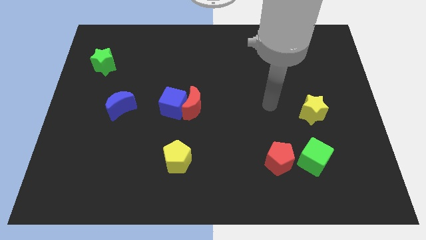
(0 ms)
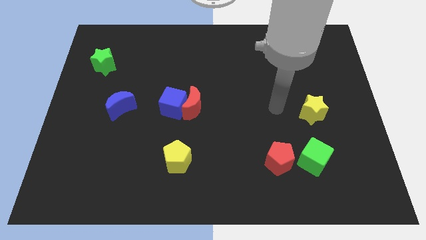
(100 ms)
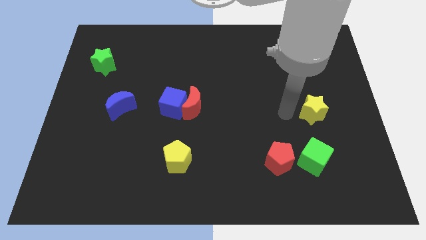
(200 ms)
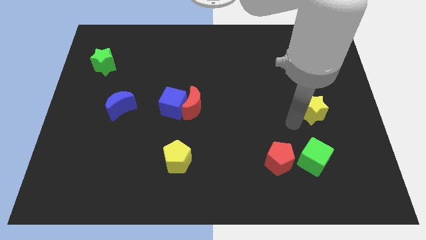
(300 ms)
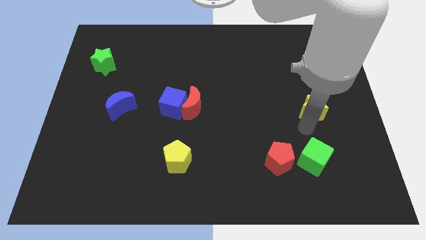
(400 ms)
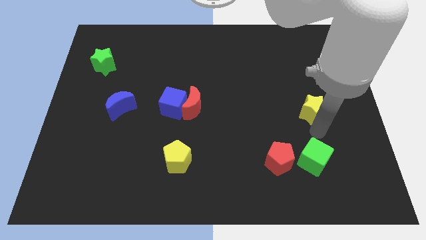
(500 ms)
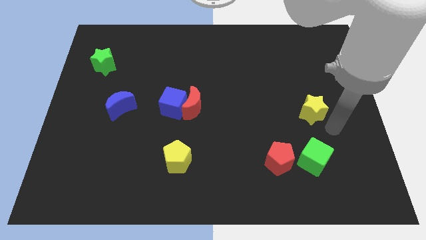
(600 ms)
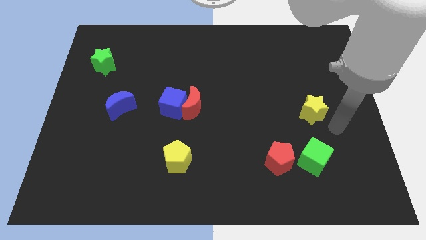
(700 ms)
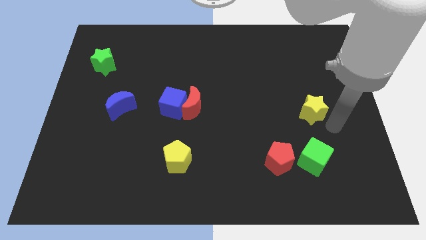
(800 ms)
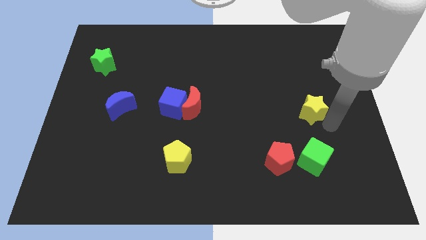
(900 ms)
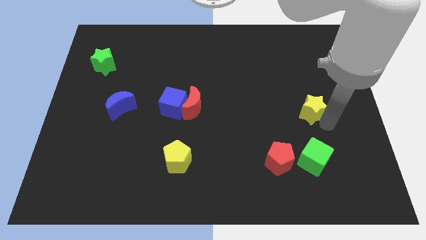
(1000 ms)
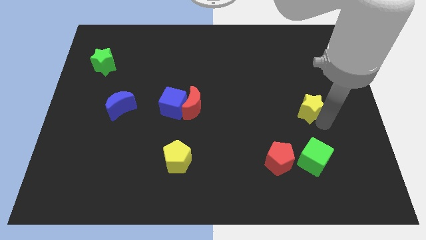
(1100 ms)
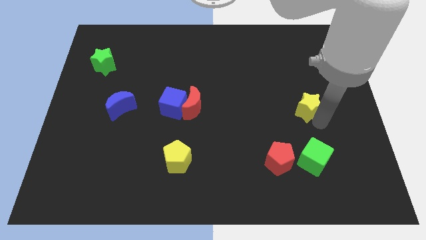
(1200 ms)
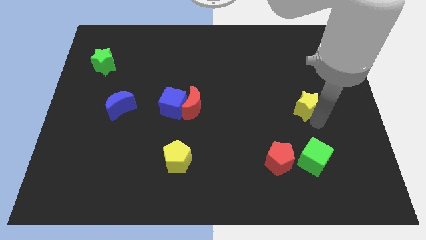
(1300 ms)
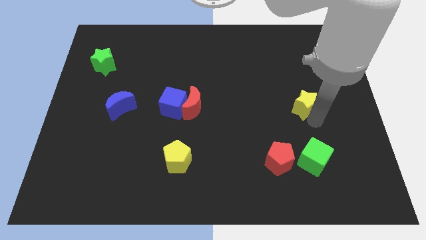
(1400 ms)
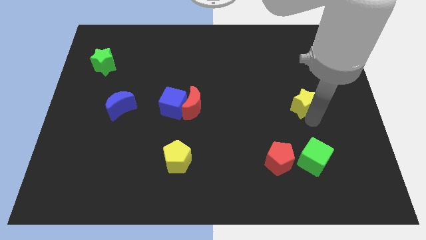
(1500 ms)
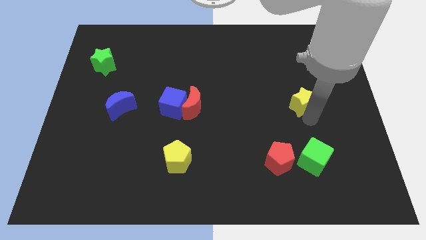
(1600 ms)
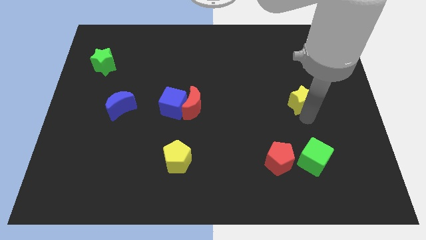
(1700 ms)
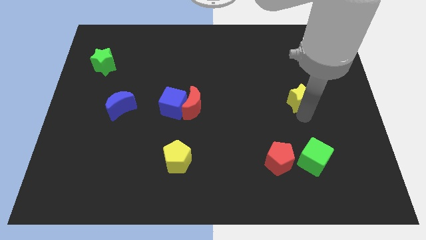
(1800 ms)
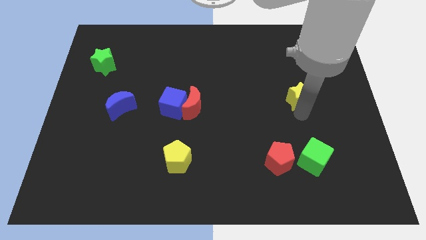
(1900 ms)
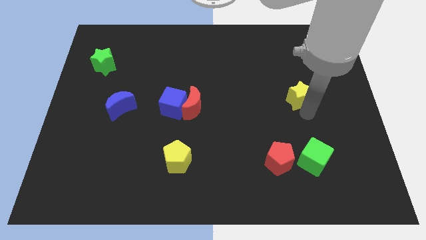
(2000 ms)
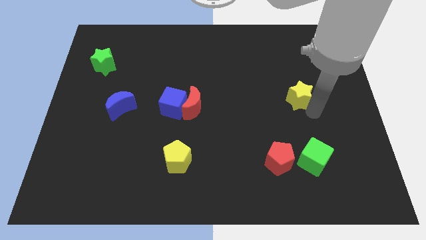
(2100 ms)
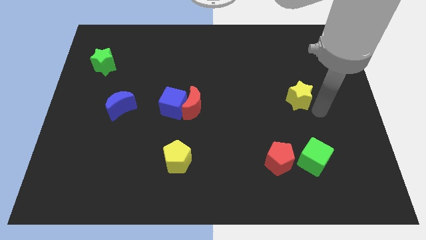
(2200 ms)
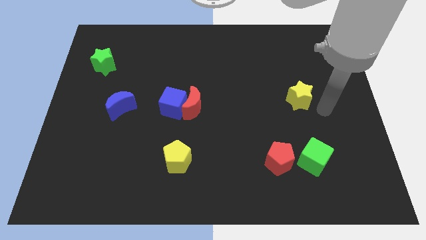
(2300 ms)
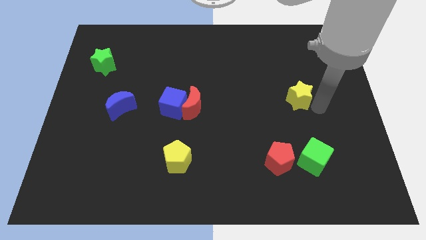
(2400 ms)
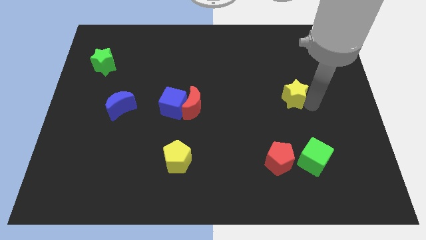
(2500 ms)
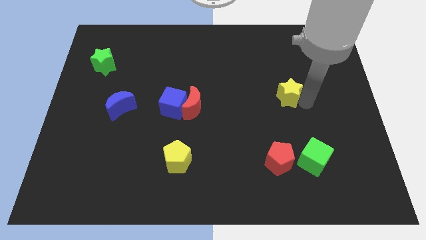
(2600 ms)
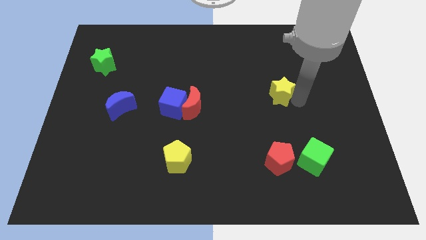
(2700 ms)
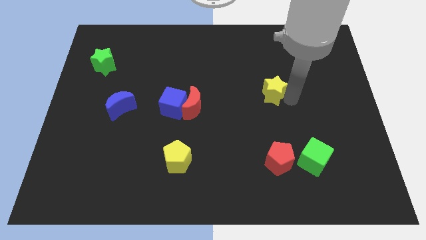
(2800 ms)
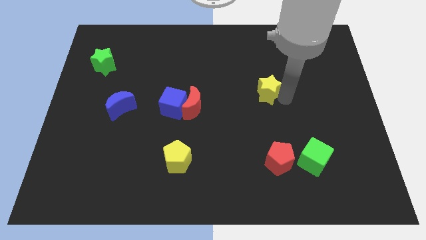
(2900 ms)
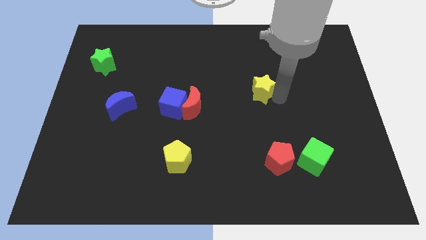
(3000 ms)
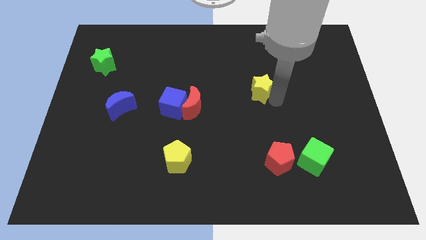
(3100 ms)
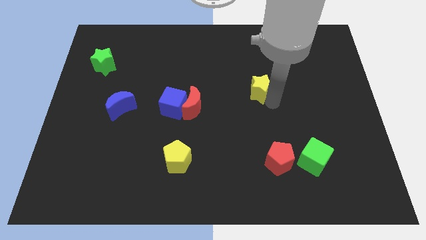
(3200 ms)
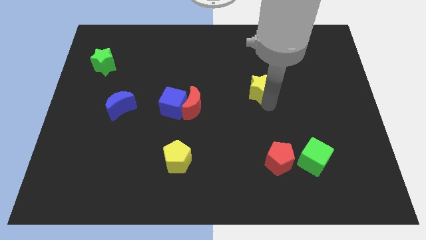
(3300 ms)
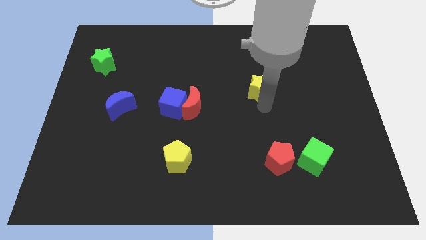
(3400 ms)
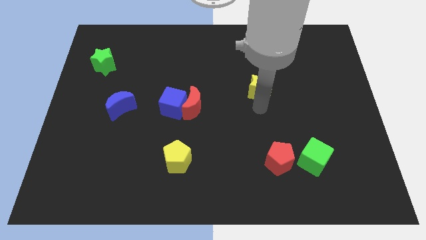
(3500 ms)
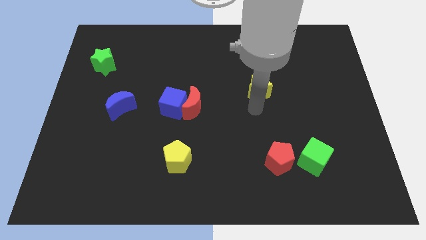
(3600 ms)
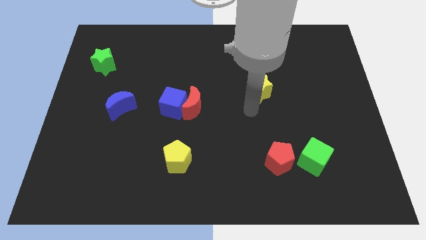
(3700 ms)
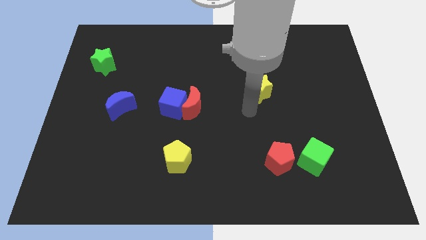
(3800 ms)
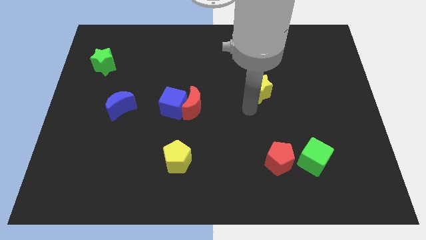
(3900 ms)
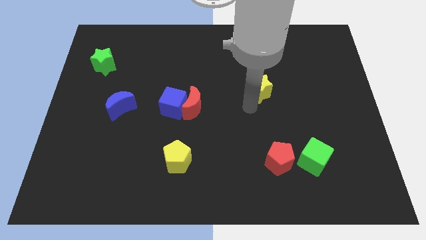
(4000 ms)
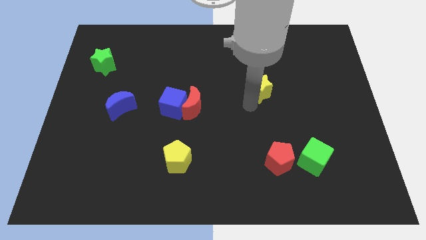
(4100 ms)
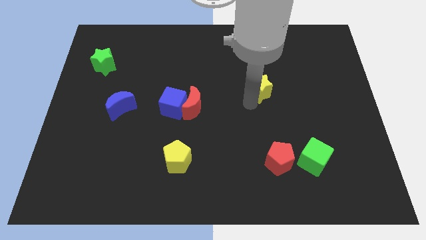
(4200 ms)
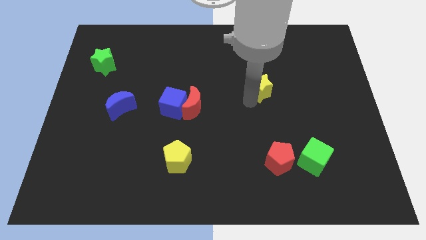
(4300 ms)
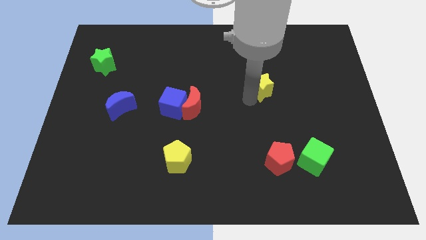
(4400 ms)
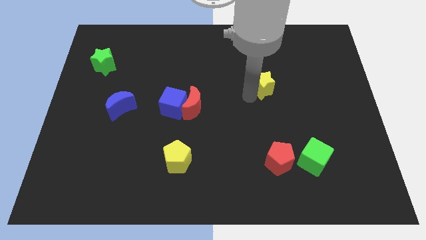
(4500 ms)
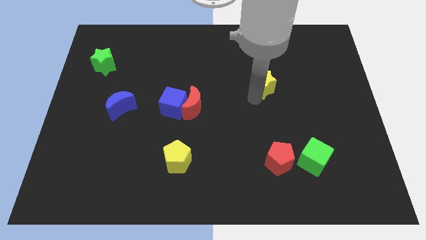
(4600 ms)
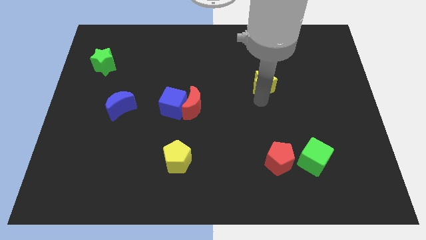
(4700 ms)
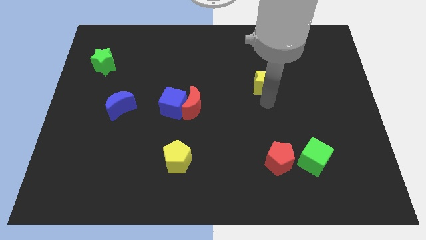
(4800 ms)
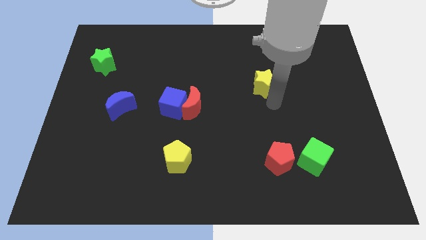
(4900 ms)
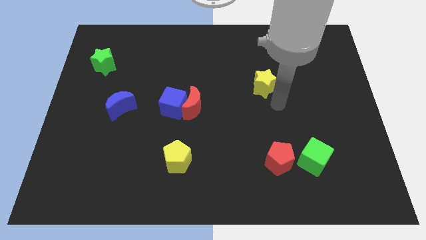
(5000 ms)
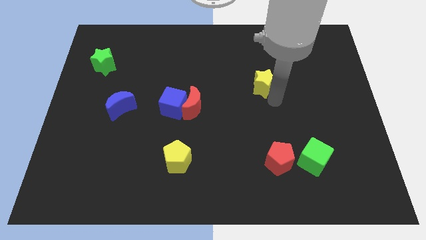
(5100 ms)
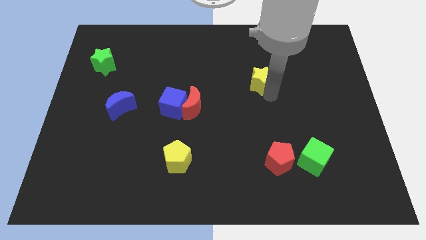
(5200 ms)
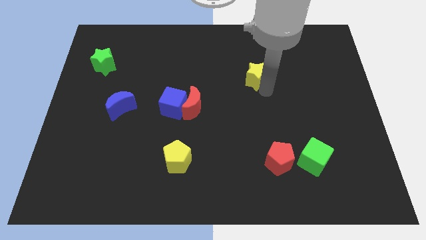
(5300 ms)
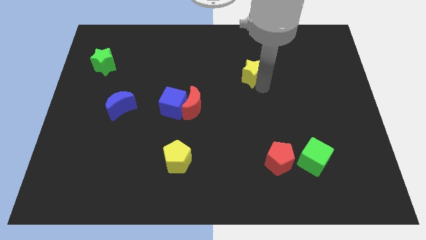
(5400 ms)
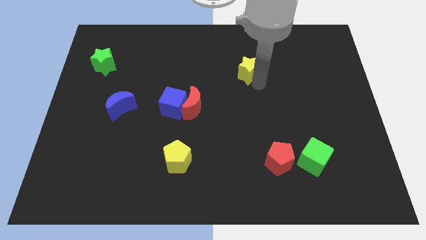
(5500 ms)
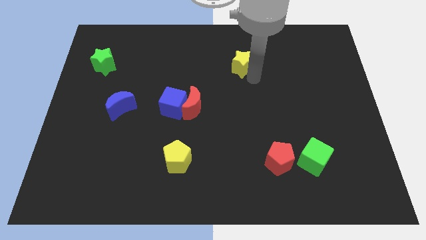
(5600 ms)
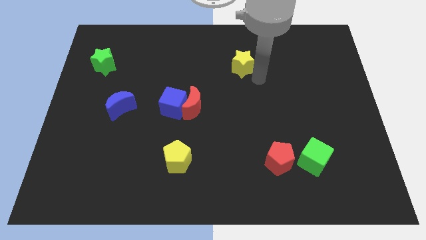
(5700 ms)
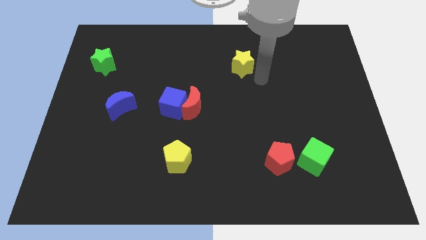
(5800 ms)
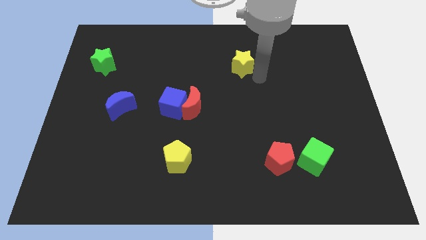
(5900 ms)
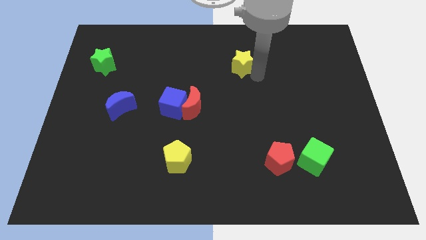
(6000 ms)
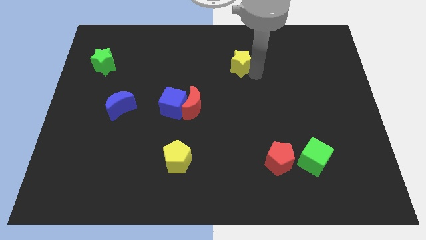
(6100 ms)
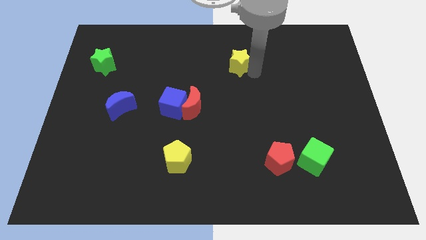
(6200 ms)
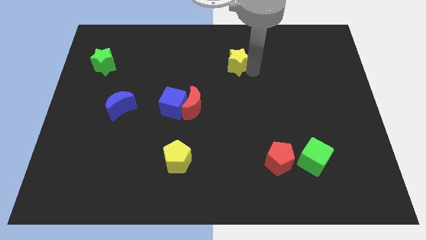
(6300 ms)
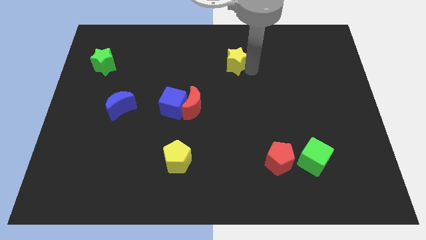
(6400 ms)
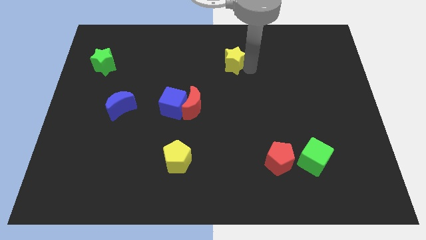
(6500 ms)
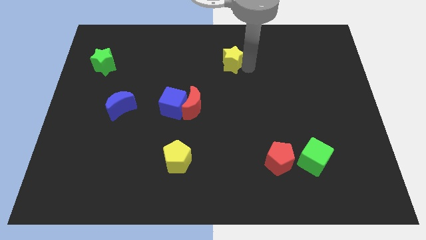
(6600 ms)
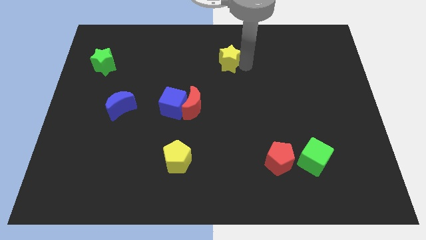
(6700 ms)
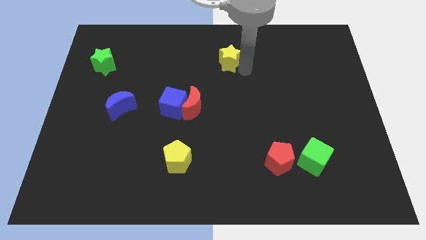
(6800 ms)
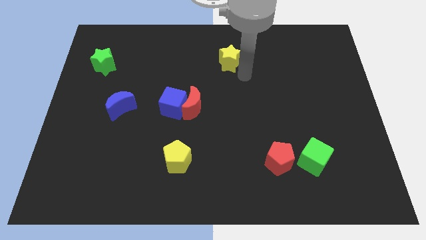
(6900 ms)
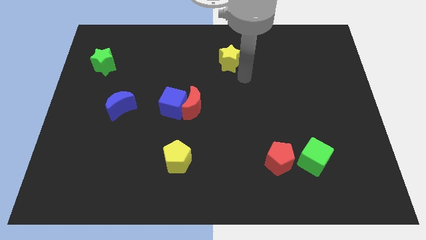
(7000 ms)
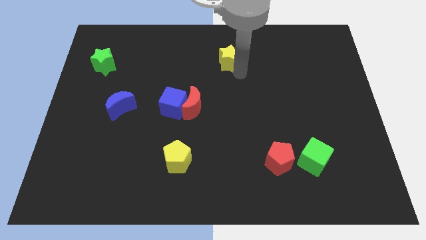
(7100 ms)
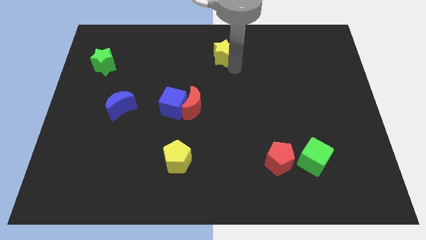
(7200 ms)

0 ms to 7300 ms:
push the yellow star to the top side

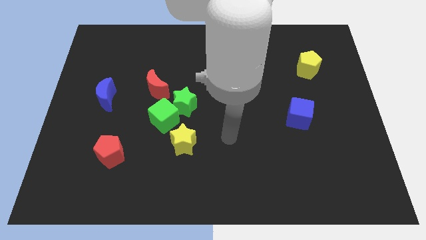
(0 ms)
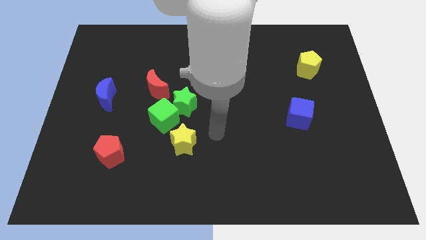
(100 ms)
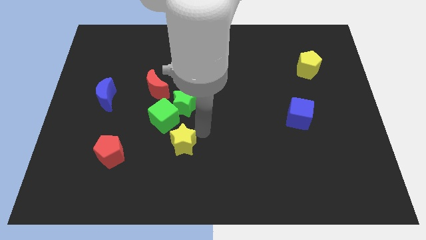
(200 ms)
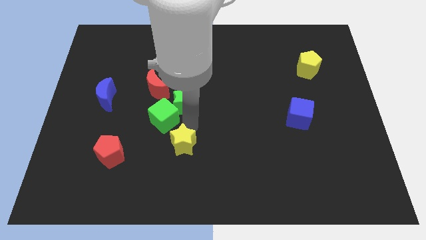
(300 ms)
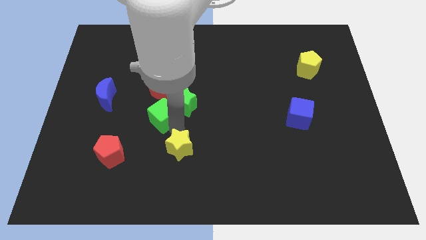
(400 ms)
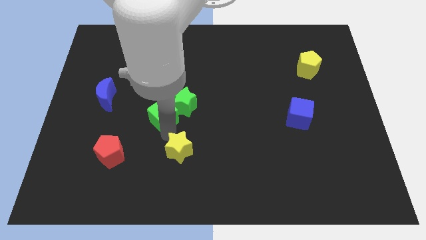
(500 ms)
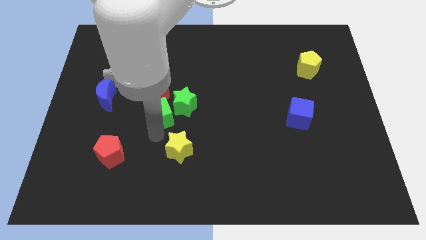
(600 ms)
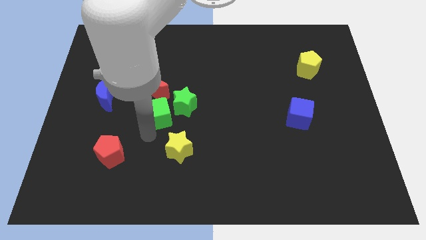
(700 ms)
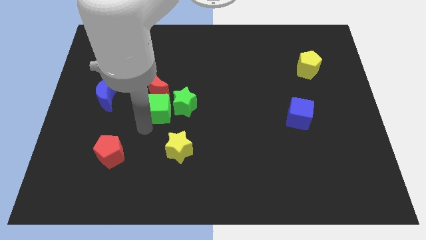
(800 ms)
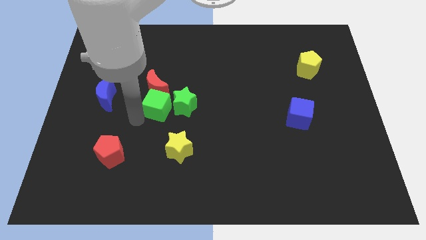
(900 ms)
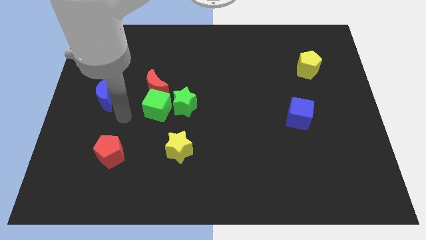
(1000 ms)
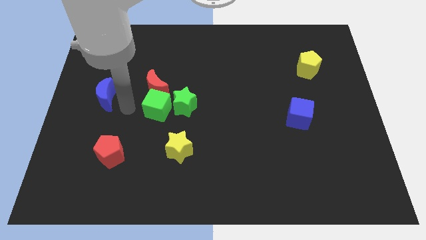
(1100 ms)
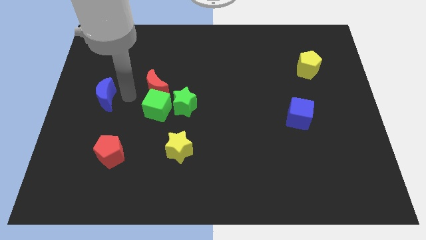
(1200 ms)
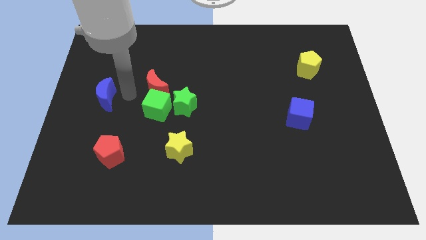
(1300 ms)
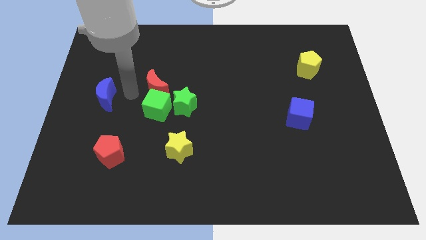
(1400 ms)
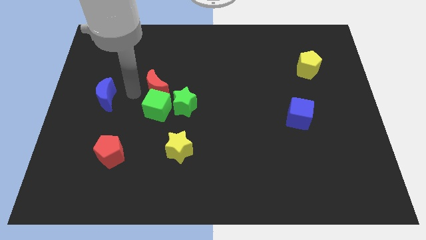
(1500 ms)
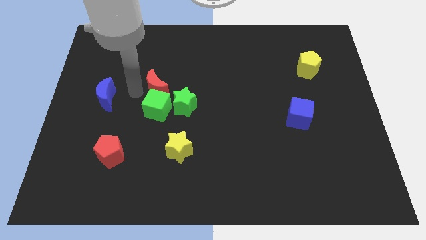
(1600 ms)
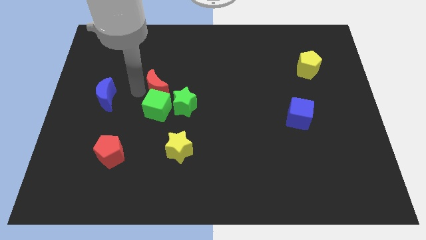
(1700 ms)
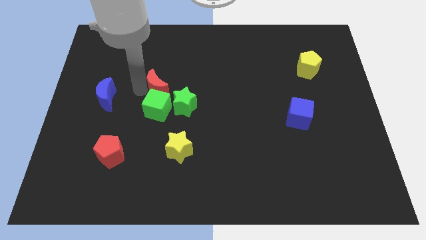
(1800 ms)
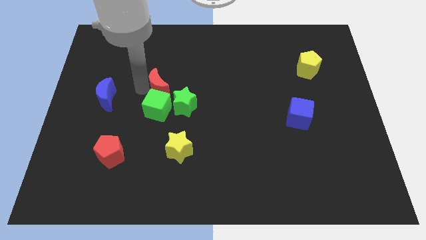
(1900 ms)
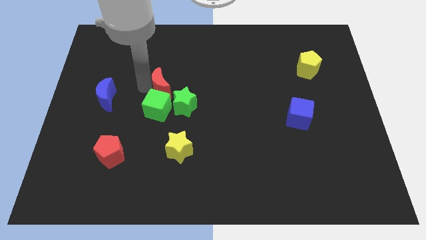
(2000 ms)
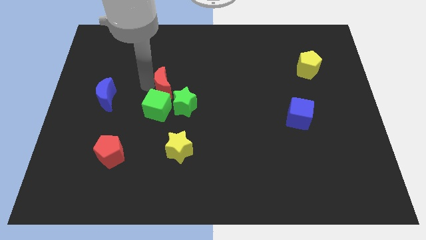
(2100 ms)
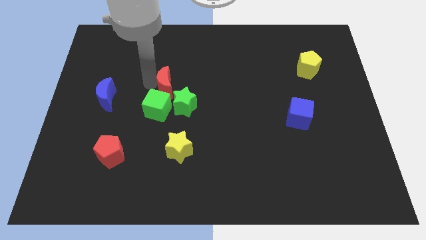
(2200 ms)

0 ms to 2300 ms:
move the red moon to the middle of the board
